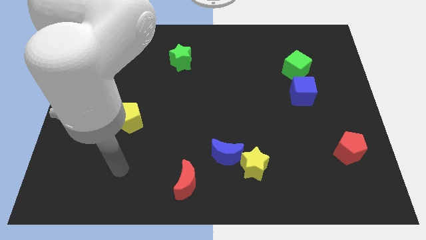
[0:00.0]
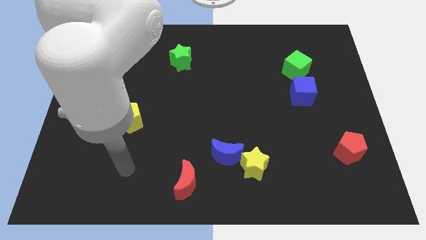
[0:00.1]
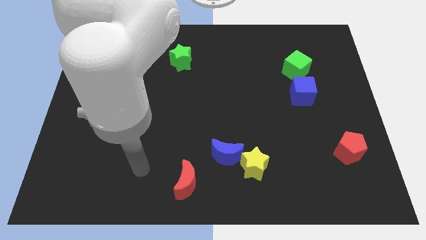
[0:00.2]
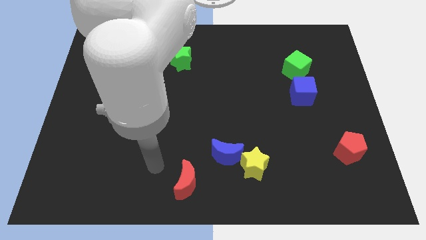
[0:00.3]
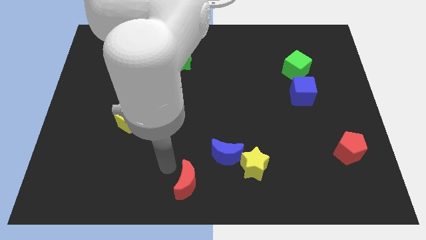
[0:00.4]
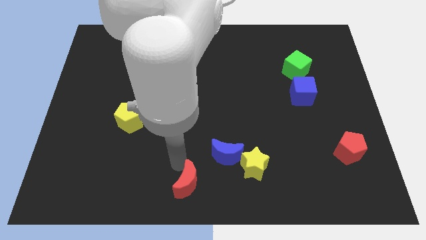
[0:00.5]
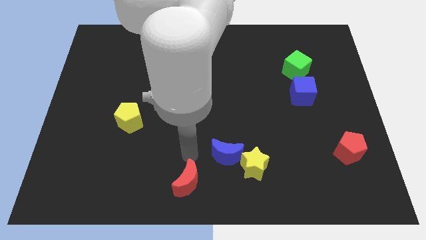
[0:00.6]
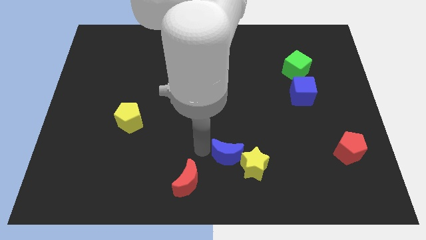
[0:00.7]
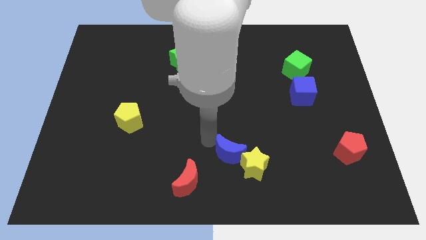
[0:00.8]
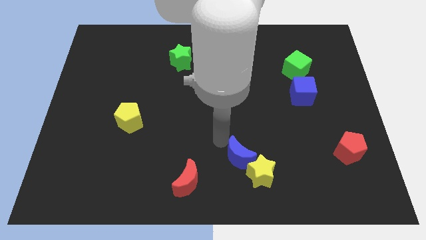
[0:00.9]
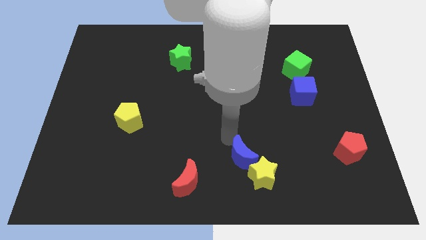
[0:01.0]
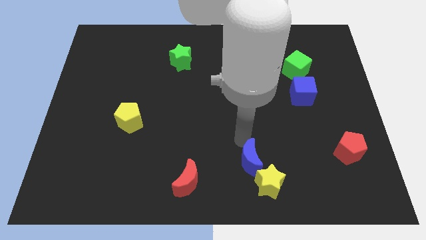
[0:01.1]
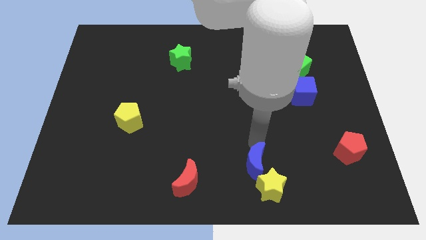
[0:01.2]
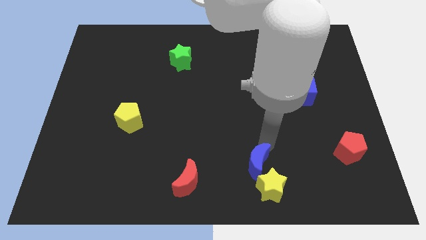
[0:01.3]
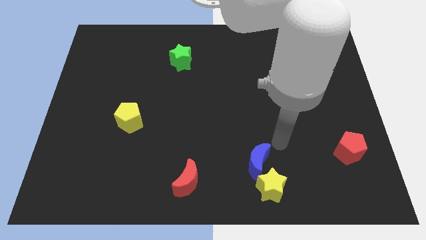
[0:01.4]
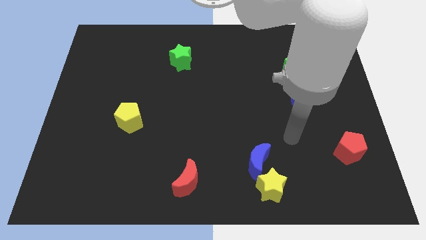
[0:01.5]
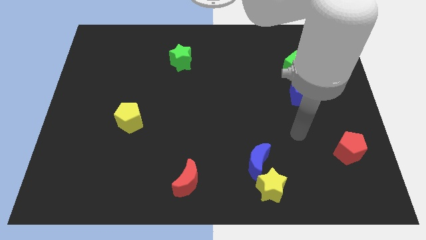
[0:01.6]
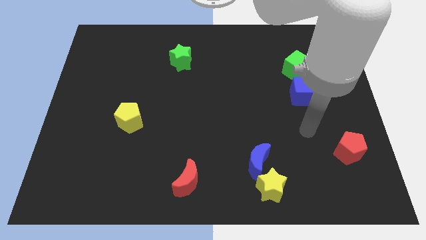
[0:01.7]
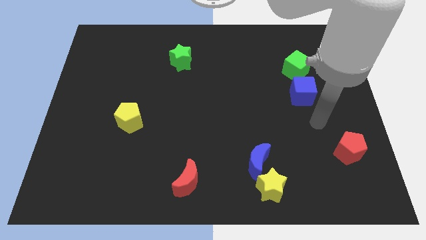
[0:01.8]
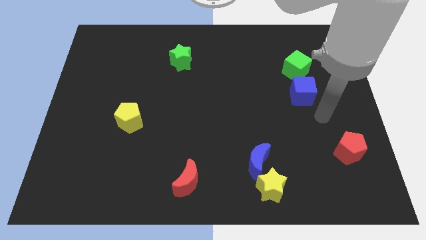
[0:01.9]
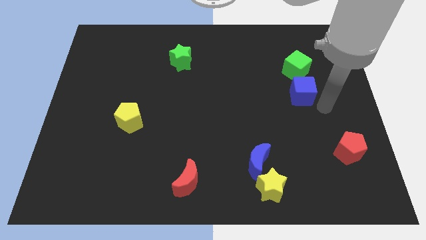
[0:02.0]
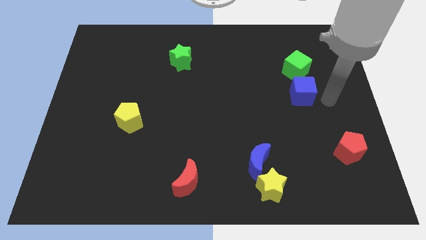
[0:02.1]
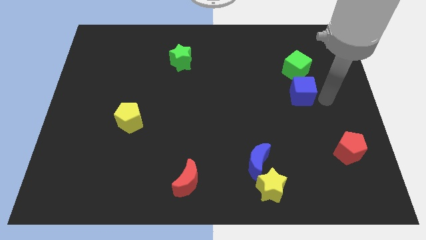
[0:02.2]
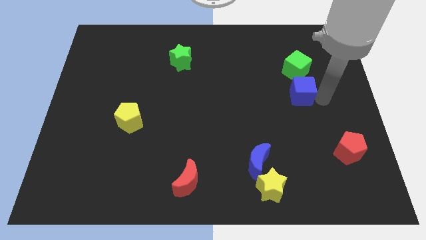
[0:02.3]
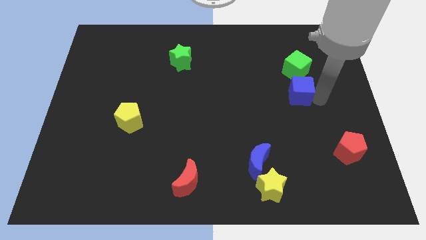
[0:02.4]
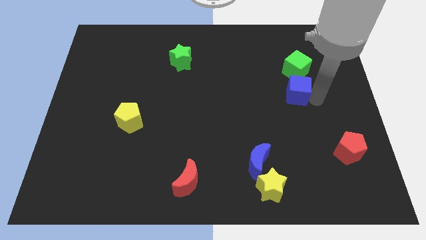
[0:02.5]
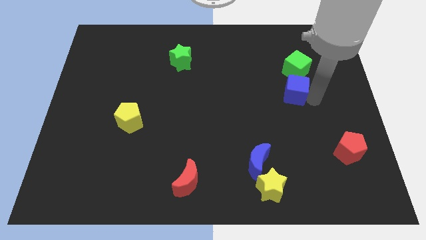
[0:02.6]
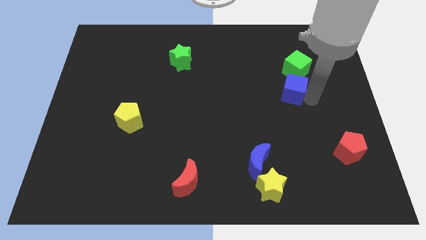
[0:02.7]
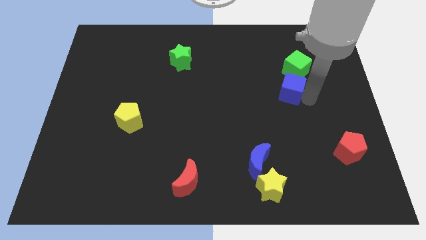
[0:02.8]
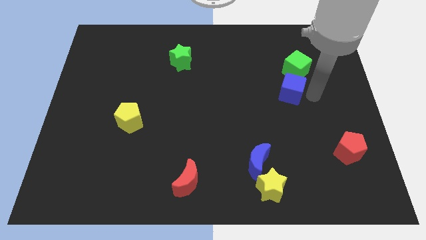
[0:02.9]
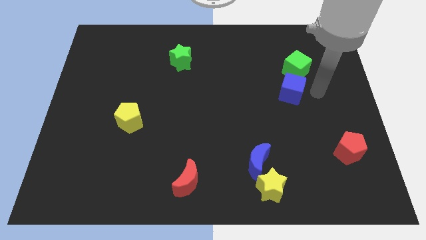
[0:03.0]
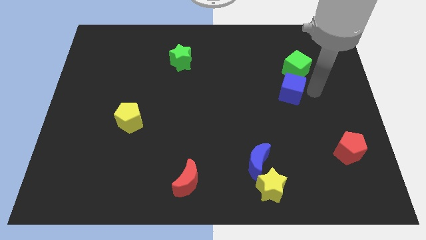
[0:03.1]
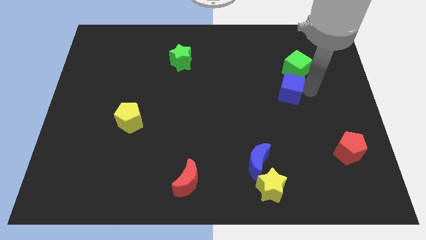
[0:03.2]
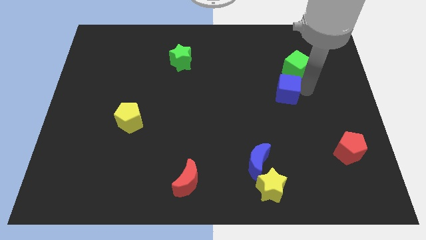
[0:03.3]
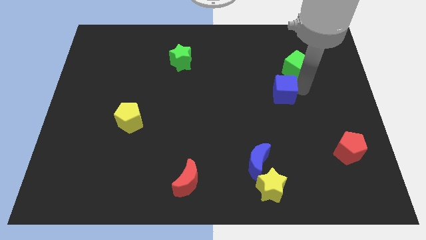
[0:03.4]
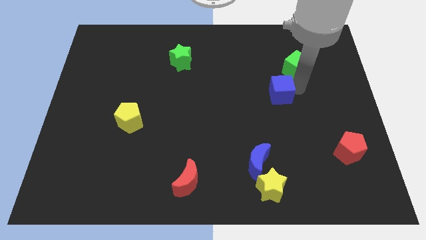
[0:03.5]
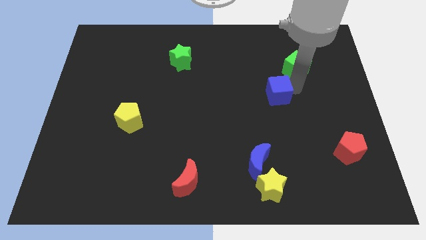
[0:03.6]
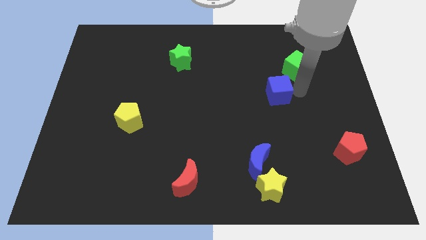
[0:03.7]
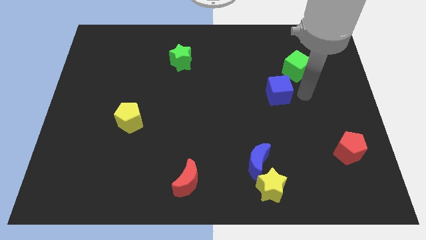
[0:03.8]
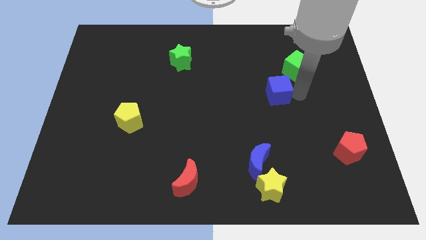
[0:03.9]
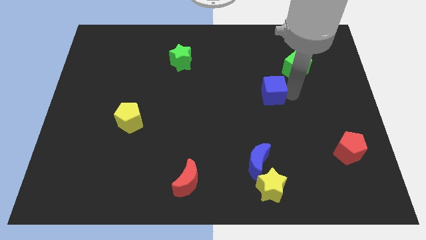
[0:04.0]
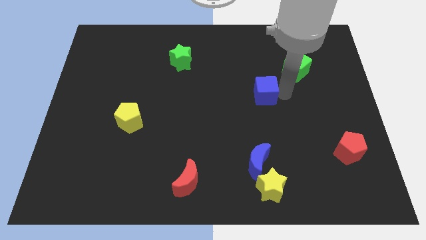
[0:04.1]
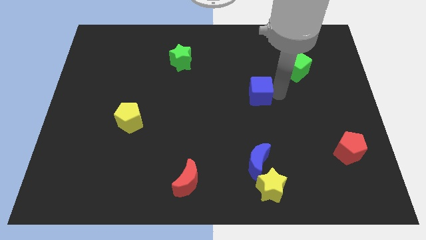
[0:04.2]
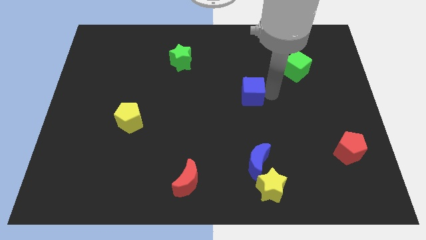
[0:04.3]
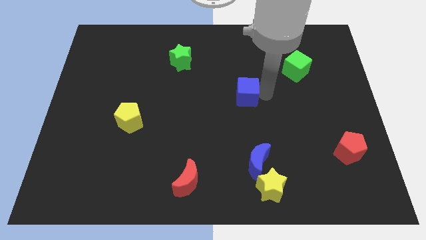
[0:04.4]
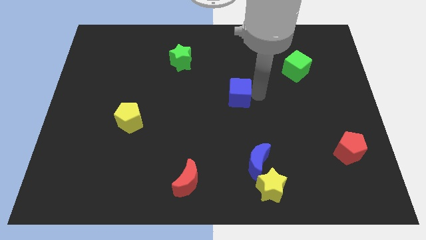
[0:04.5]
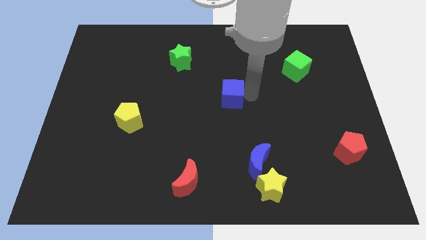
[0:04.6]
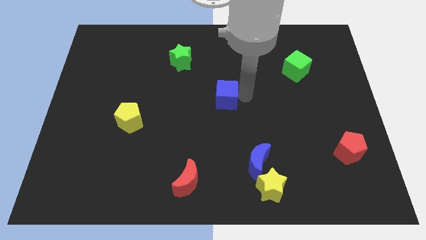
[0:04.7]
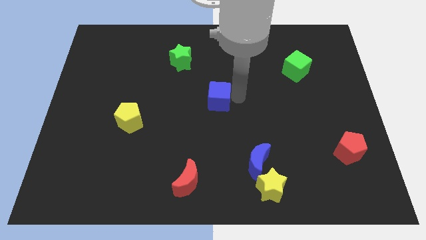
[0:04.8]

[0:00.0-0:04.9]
move the blue cube to the left

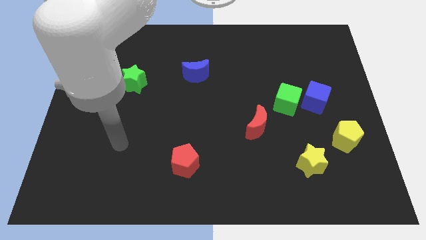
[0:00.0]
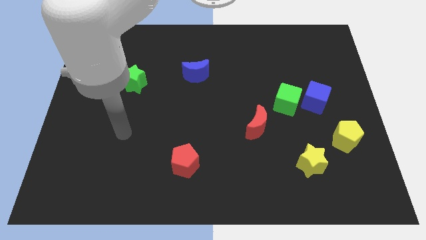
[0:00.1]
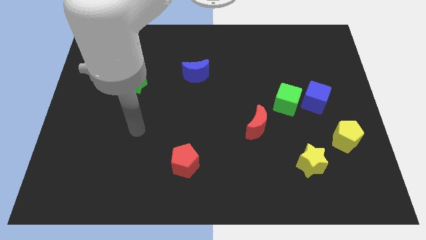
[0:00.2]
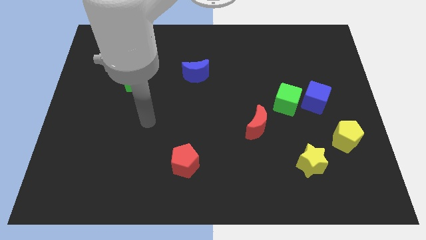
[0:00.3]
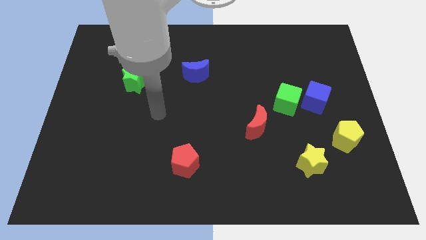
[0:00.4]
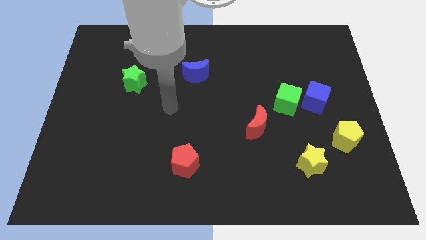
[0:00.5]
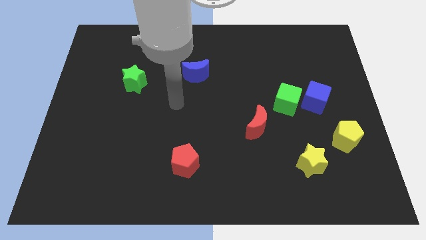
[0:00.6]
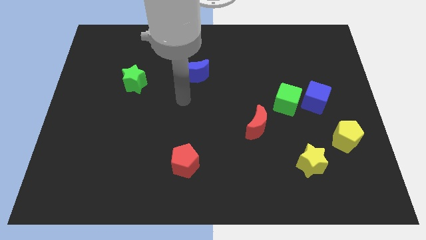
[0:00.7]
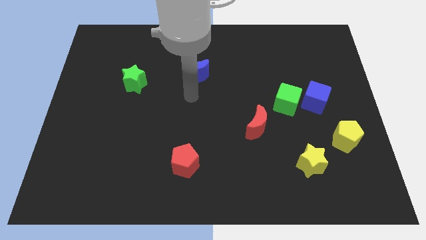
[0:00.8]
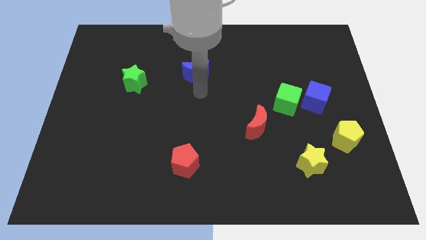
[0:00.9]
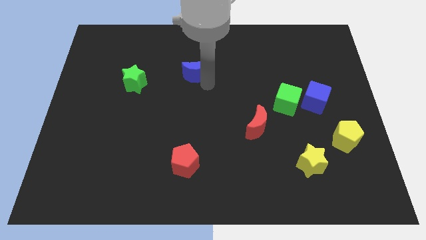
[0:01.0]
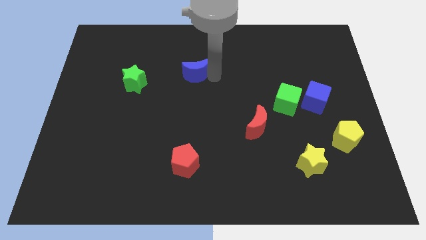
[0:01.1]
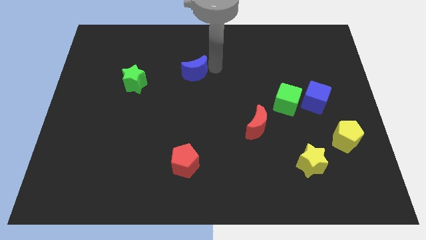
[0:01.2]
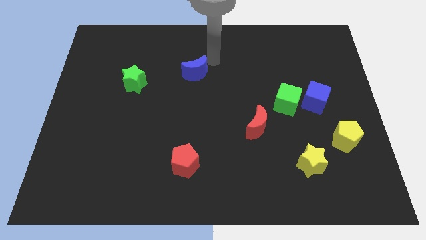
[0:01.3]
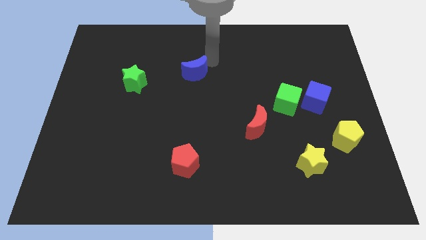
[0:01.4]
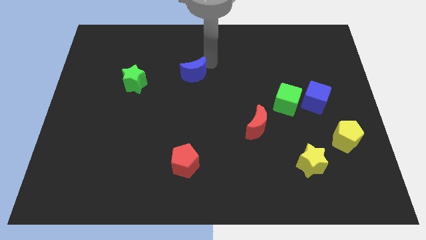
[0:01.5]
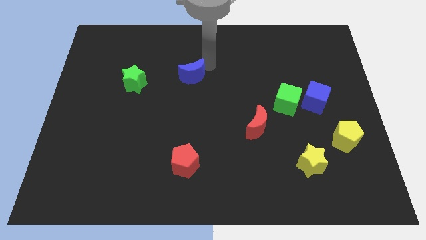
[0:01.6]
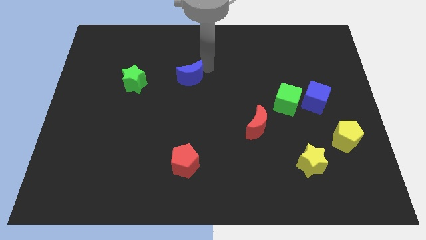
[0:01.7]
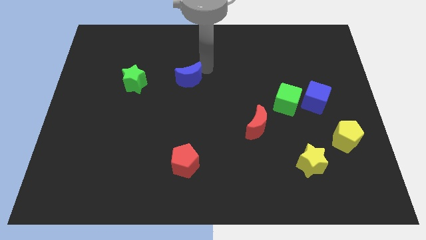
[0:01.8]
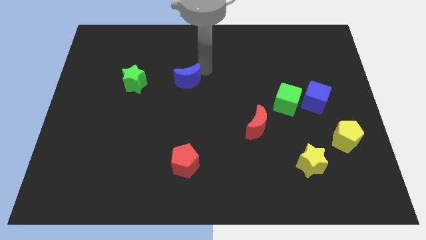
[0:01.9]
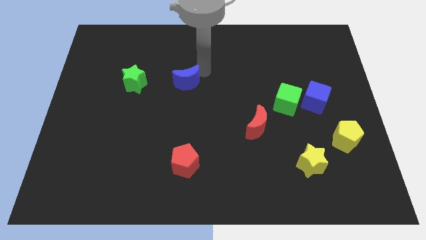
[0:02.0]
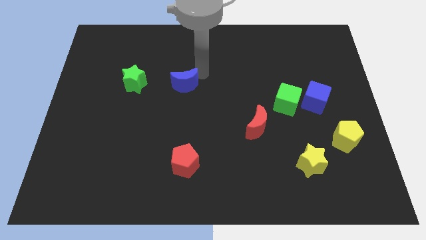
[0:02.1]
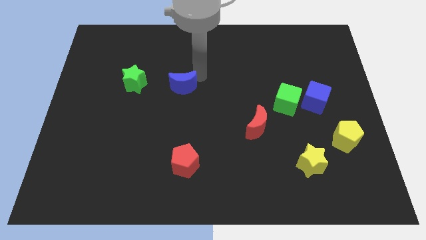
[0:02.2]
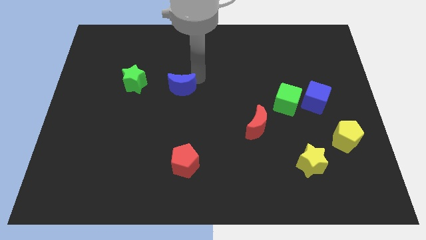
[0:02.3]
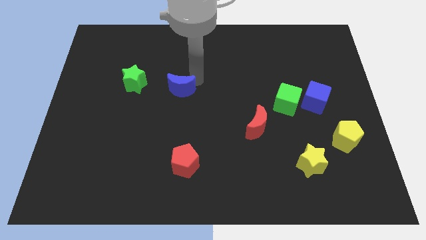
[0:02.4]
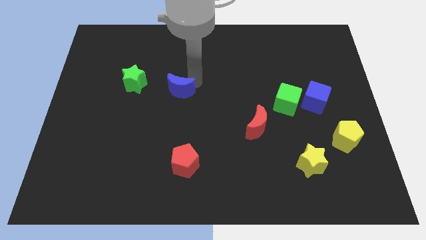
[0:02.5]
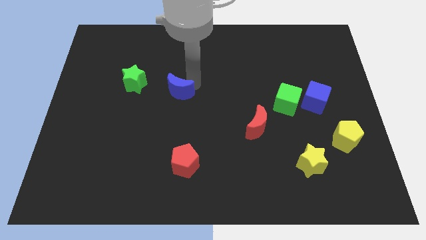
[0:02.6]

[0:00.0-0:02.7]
slide the blue moon down and left a bit

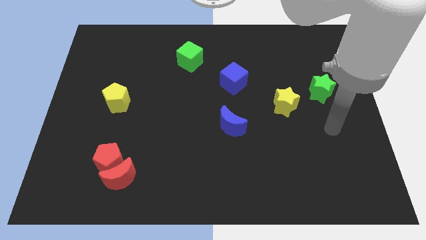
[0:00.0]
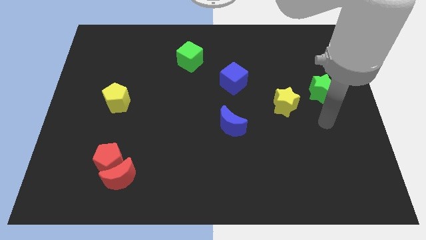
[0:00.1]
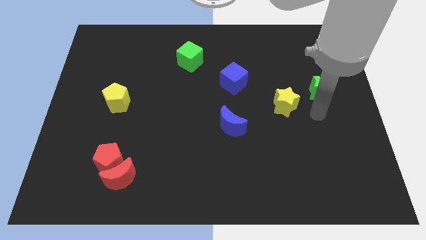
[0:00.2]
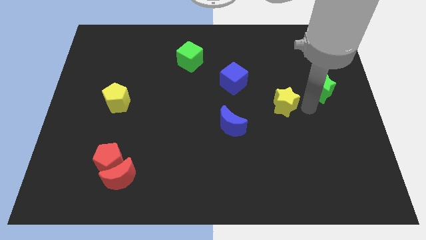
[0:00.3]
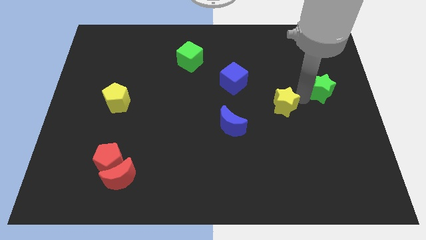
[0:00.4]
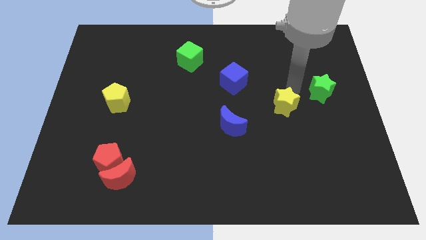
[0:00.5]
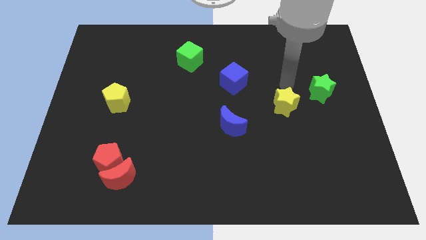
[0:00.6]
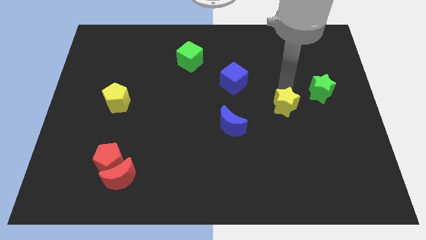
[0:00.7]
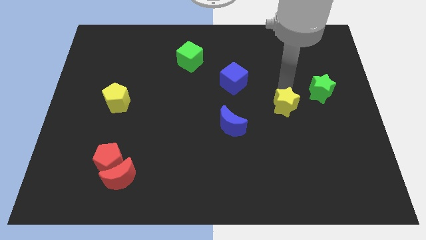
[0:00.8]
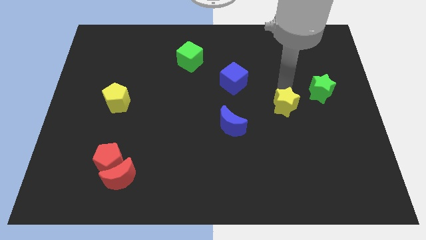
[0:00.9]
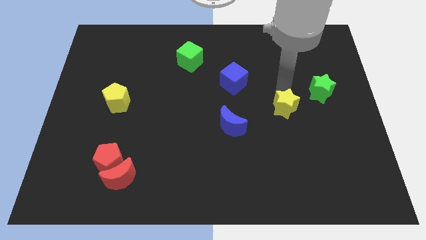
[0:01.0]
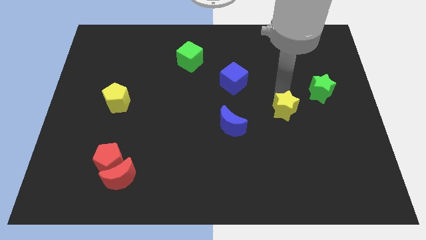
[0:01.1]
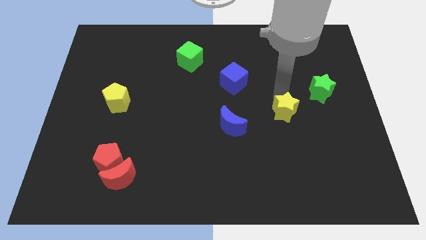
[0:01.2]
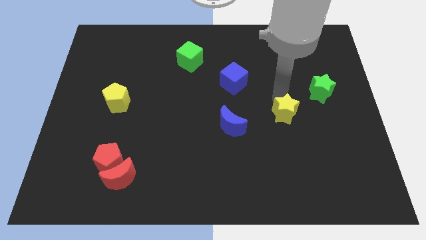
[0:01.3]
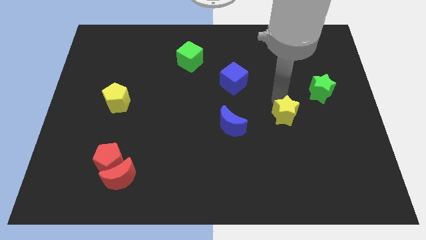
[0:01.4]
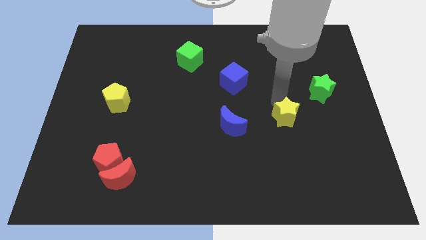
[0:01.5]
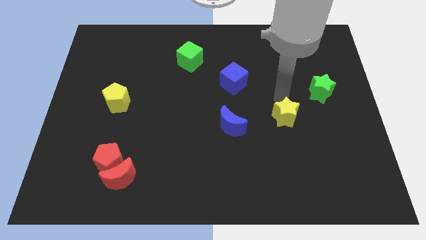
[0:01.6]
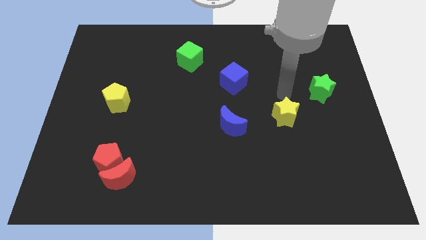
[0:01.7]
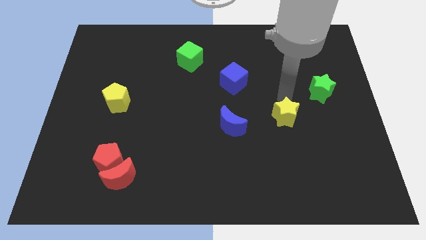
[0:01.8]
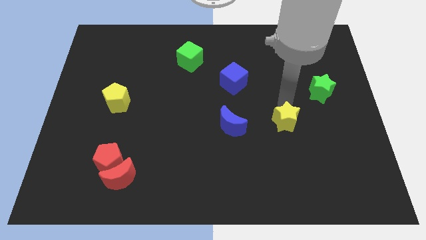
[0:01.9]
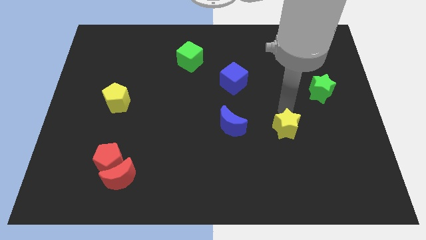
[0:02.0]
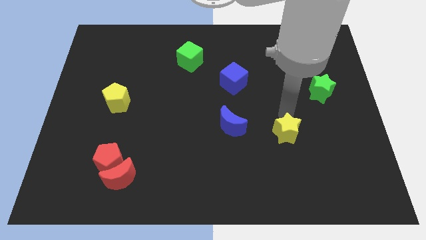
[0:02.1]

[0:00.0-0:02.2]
push the yellow star downwards a little
